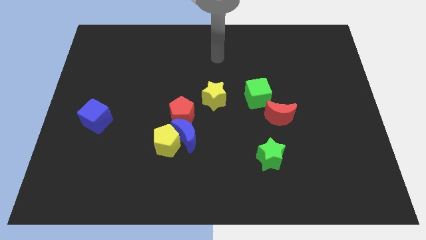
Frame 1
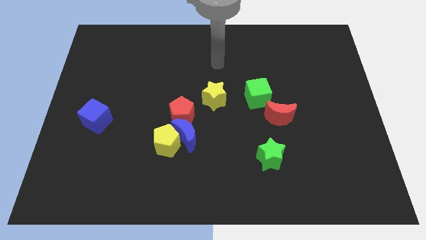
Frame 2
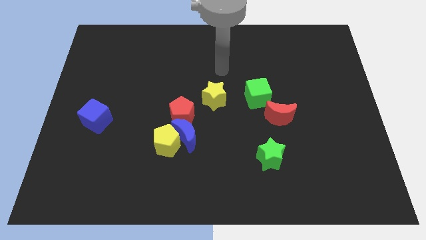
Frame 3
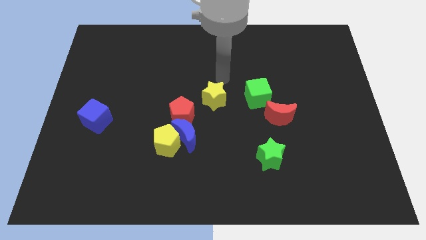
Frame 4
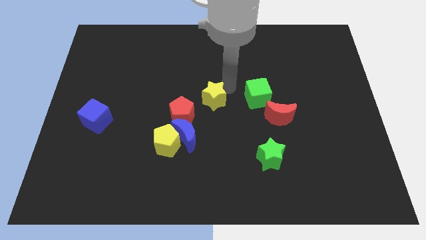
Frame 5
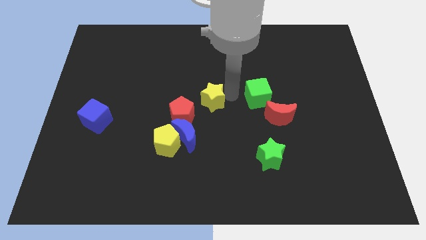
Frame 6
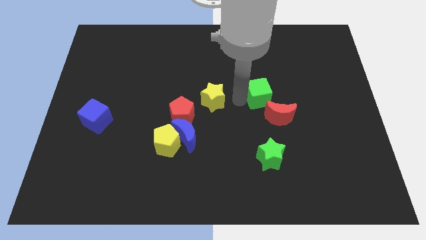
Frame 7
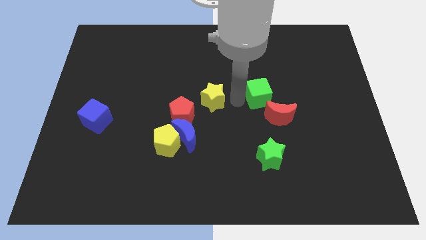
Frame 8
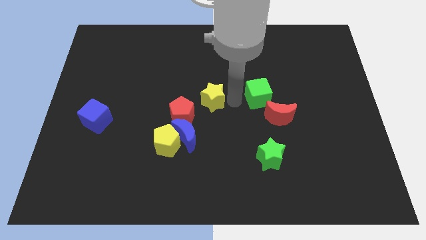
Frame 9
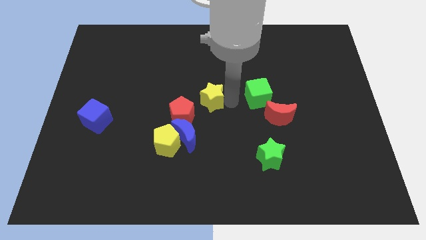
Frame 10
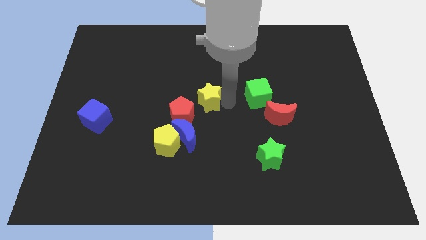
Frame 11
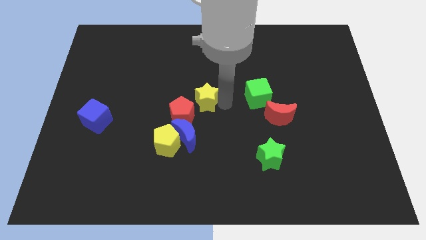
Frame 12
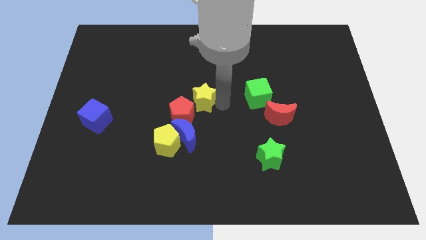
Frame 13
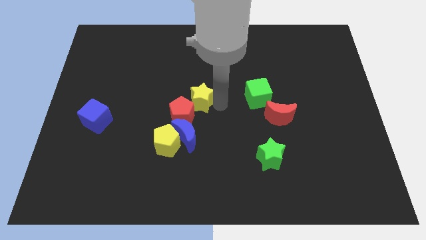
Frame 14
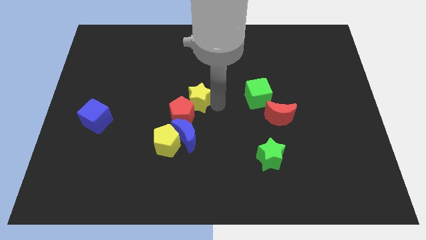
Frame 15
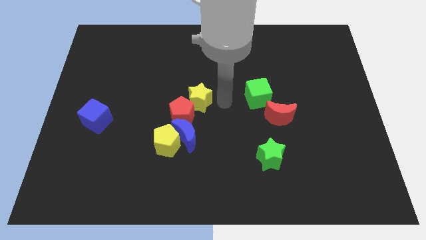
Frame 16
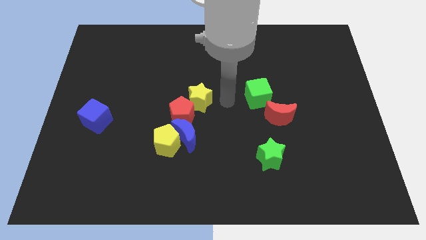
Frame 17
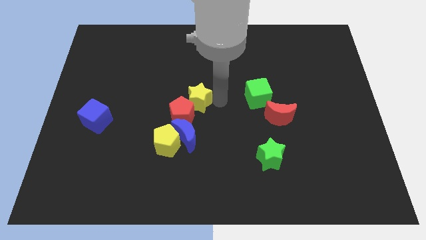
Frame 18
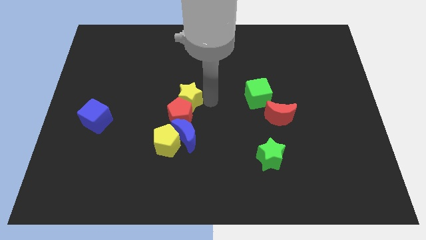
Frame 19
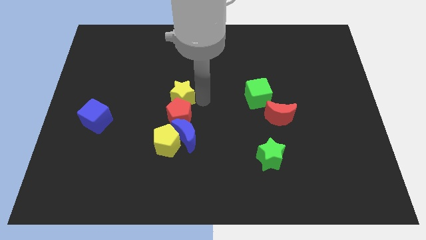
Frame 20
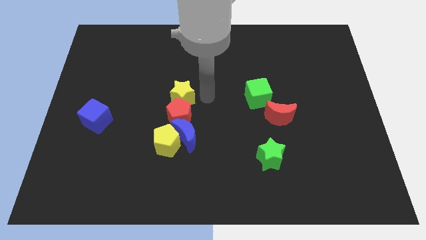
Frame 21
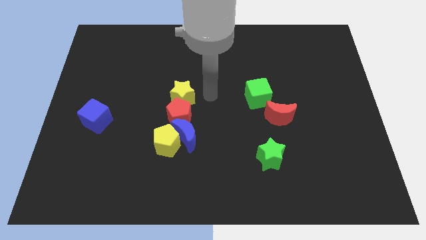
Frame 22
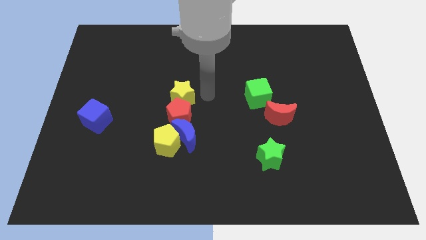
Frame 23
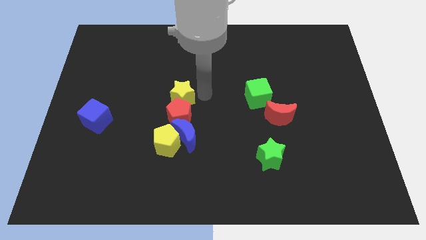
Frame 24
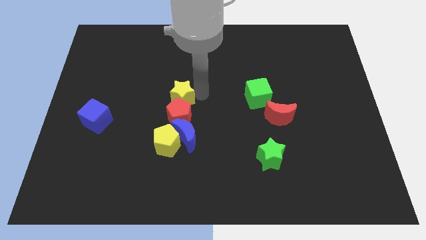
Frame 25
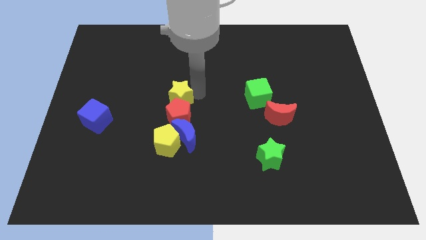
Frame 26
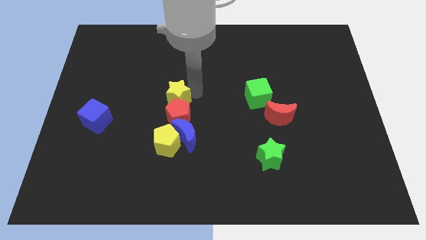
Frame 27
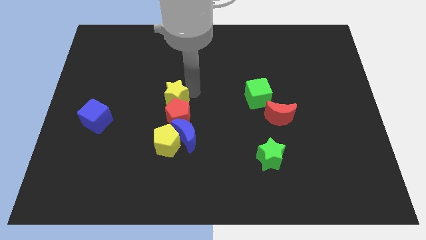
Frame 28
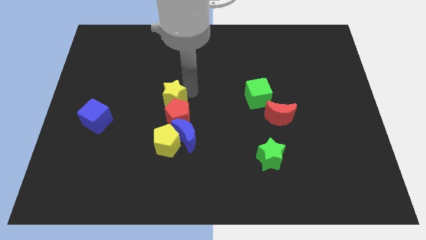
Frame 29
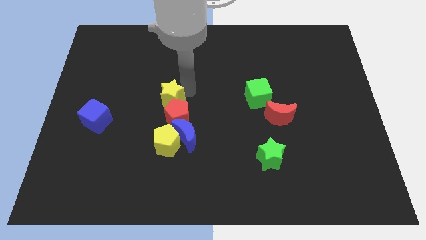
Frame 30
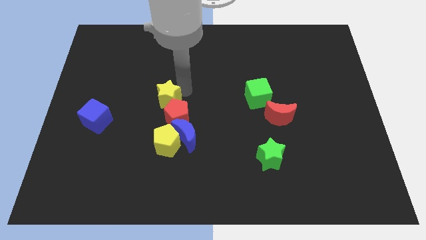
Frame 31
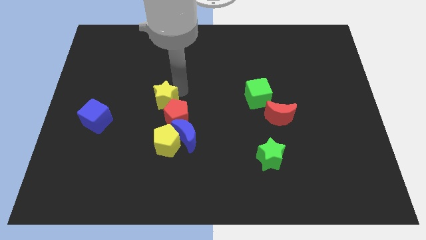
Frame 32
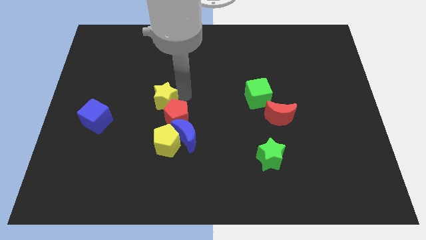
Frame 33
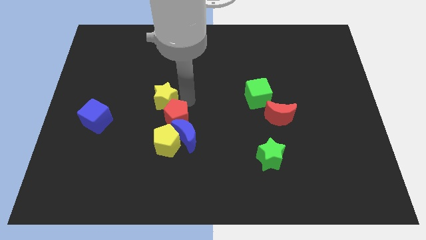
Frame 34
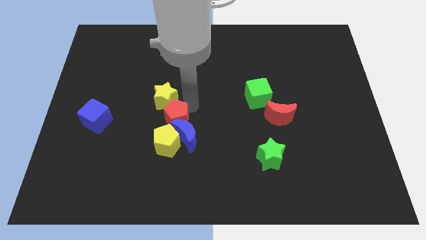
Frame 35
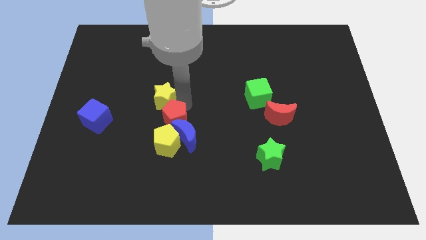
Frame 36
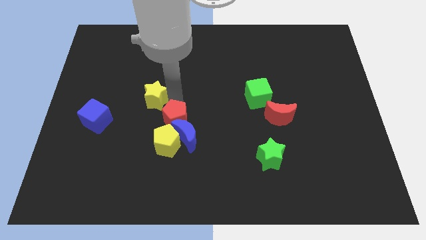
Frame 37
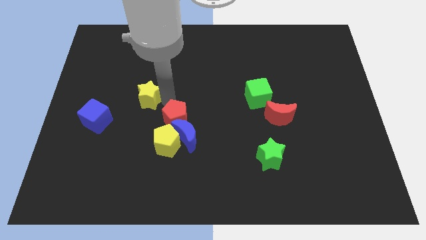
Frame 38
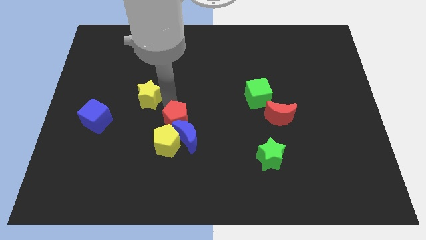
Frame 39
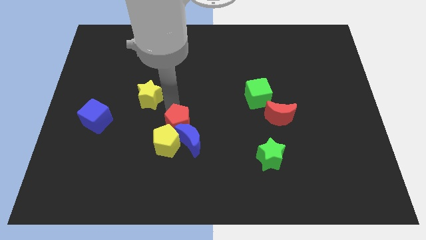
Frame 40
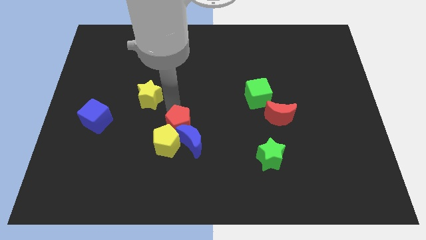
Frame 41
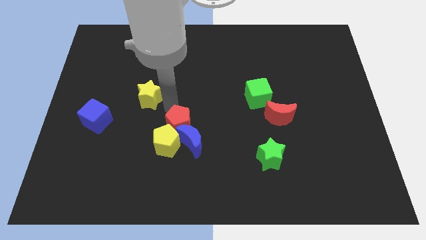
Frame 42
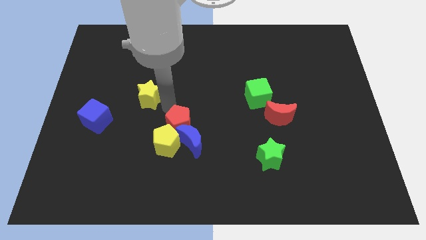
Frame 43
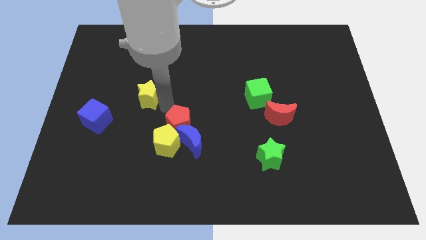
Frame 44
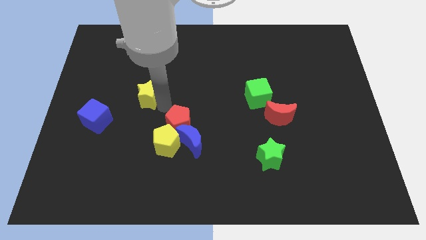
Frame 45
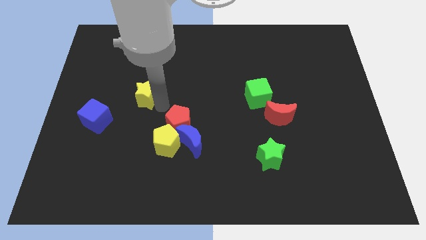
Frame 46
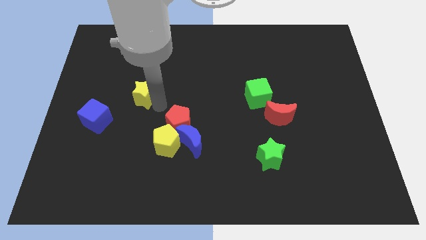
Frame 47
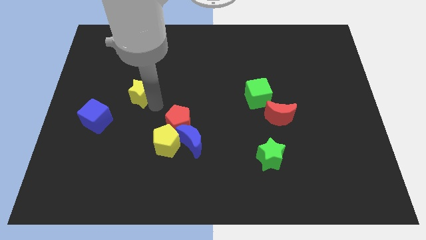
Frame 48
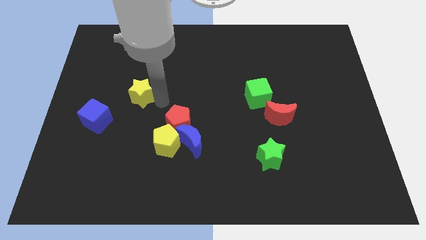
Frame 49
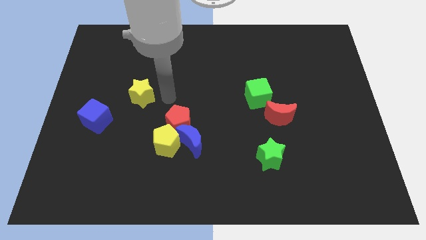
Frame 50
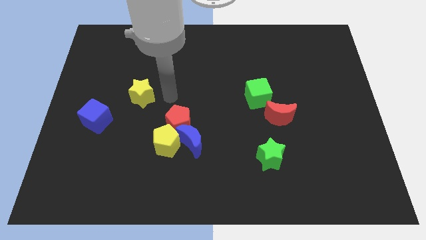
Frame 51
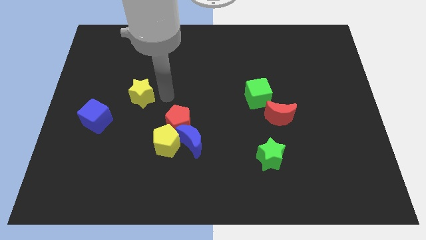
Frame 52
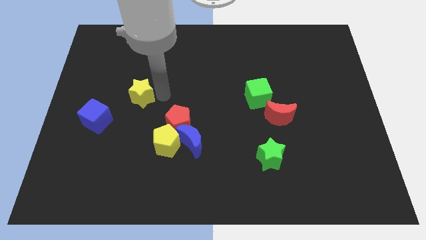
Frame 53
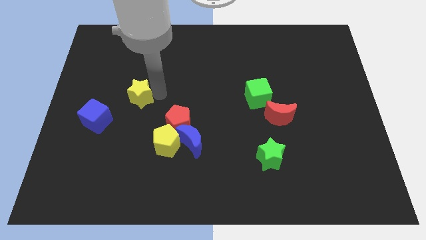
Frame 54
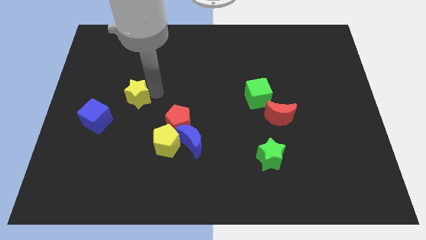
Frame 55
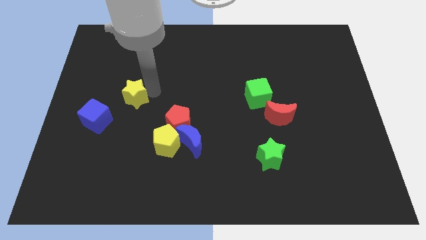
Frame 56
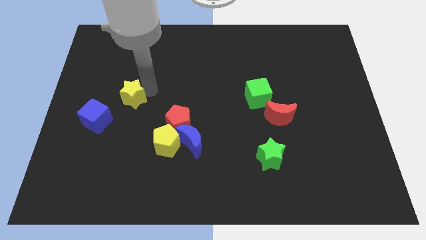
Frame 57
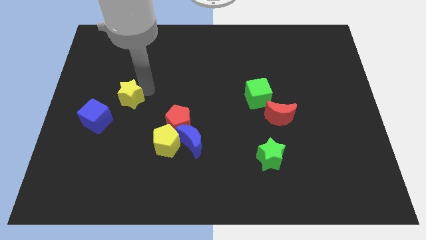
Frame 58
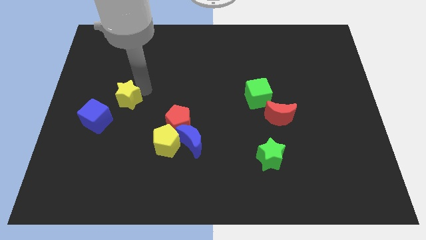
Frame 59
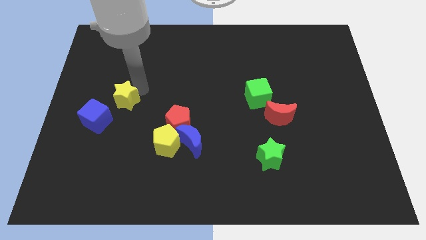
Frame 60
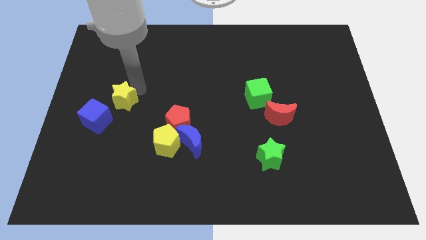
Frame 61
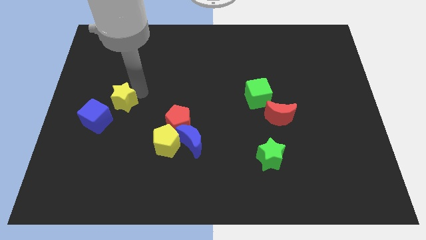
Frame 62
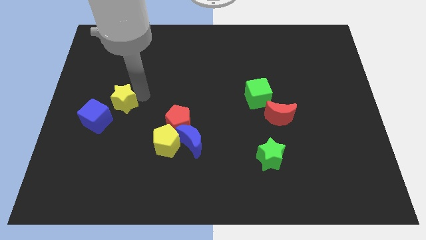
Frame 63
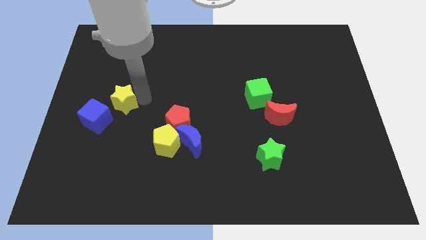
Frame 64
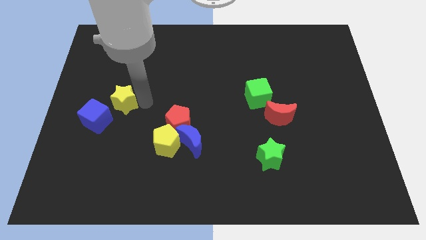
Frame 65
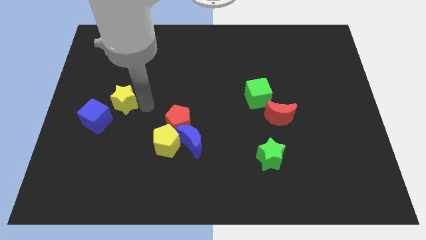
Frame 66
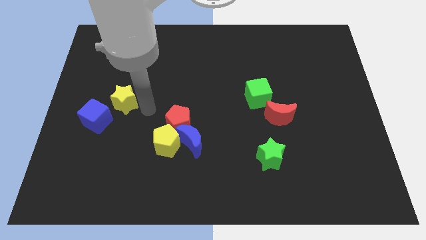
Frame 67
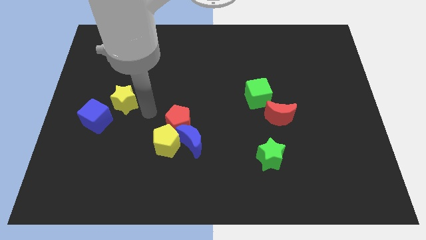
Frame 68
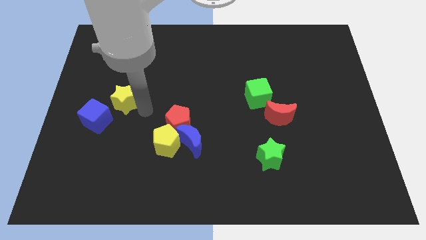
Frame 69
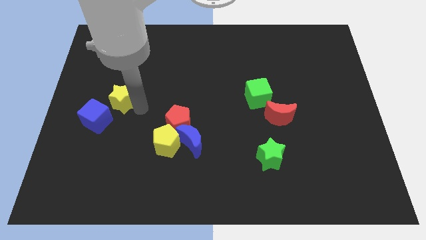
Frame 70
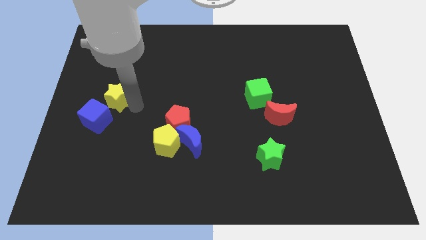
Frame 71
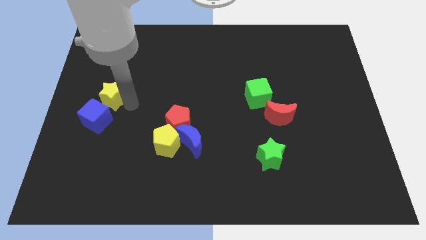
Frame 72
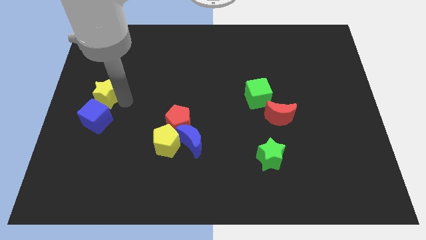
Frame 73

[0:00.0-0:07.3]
slide the yellow star to the left side
